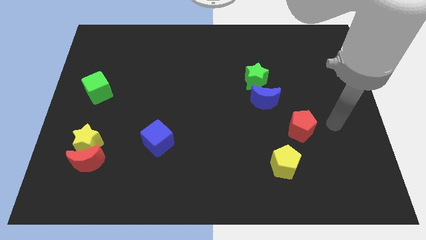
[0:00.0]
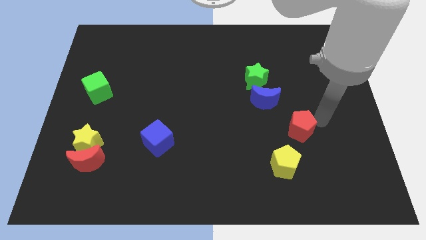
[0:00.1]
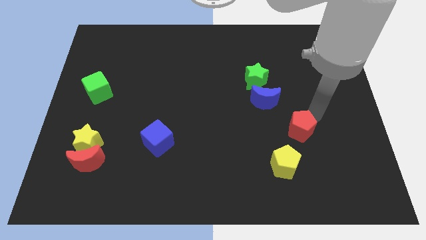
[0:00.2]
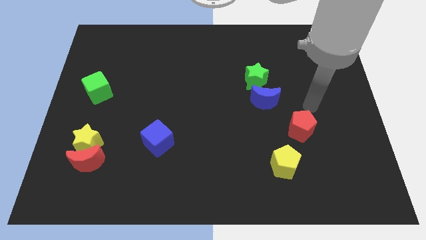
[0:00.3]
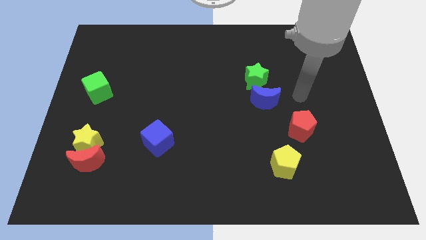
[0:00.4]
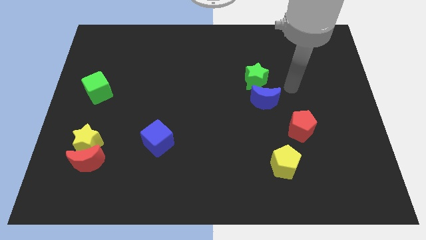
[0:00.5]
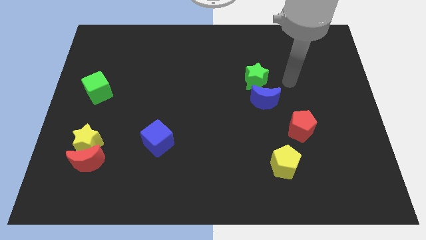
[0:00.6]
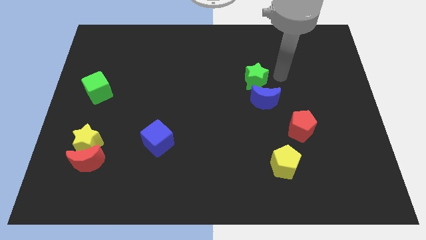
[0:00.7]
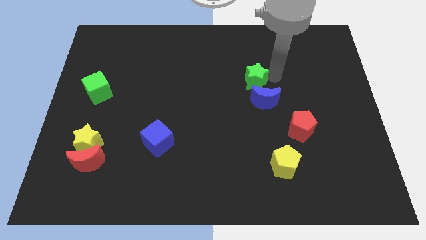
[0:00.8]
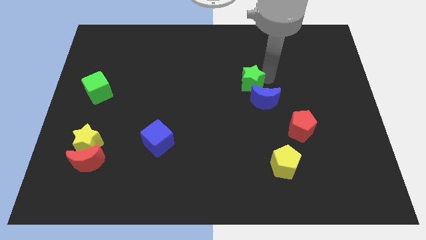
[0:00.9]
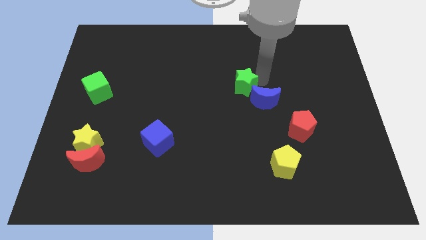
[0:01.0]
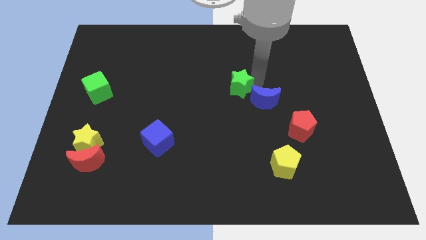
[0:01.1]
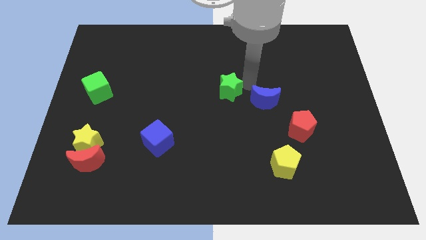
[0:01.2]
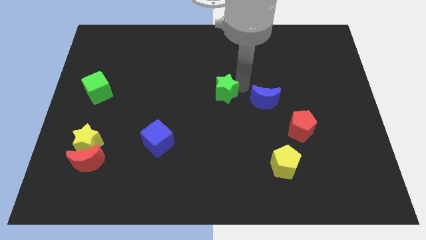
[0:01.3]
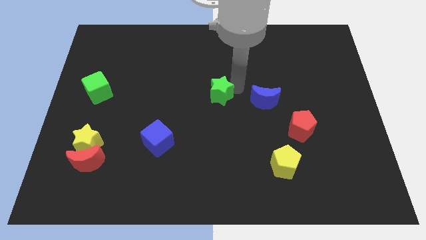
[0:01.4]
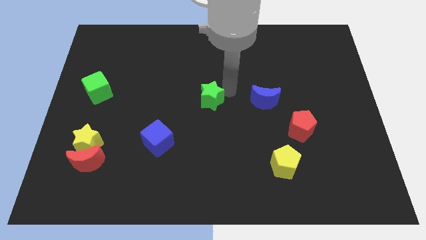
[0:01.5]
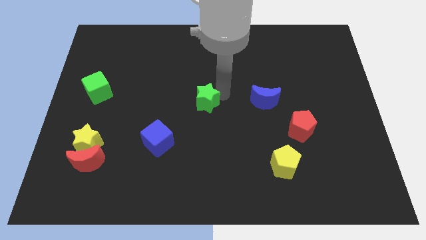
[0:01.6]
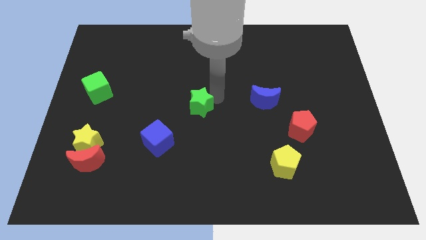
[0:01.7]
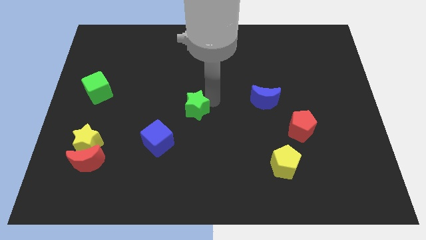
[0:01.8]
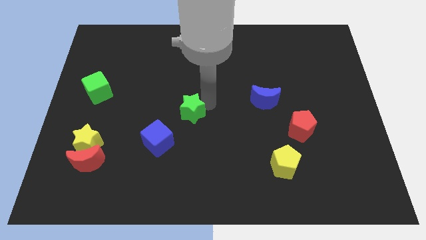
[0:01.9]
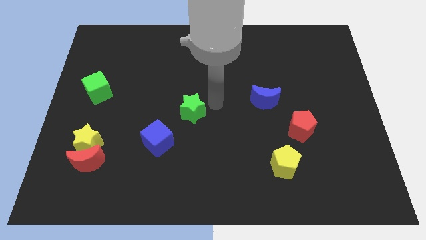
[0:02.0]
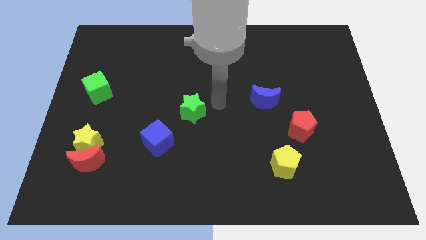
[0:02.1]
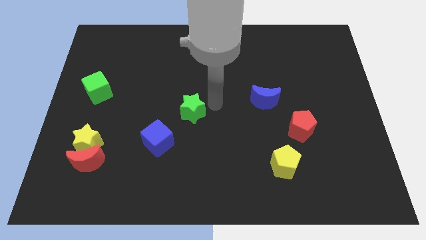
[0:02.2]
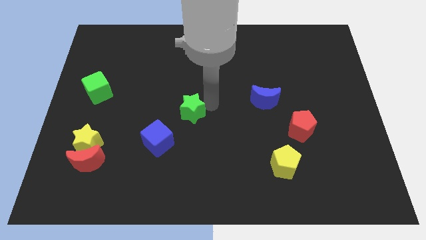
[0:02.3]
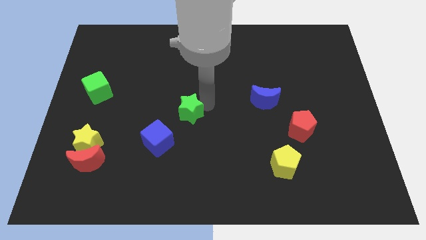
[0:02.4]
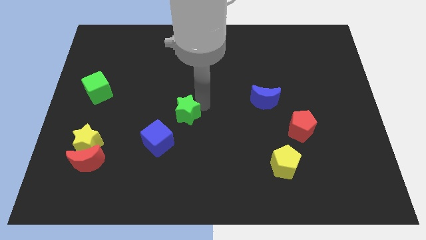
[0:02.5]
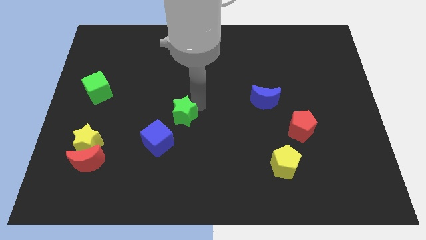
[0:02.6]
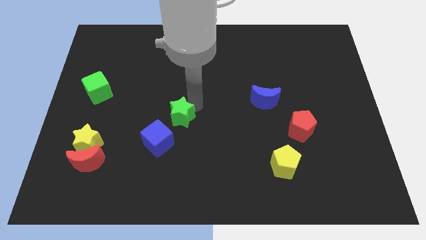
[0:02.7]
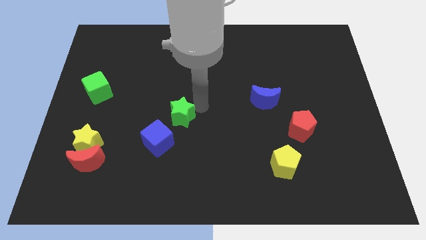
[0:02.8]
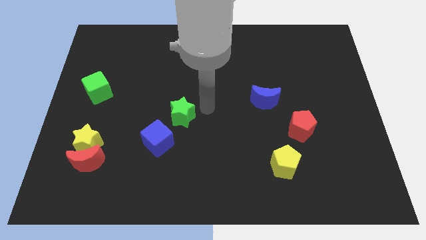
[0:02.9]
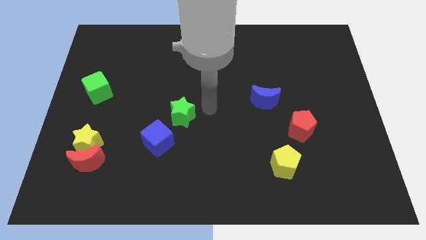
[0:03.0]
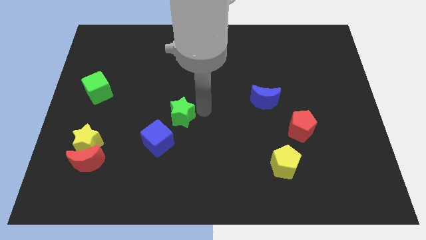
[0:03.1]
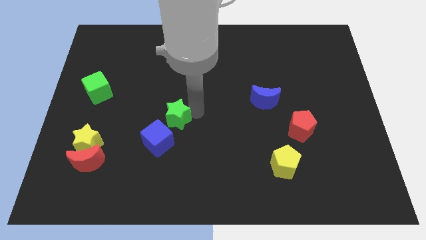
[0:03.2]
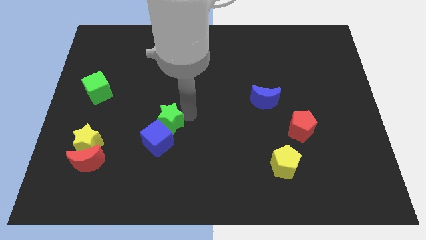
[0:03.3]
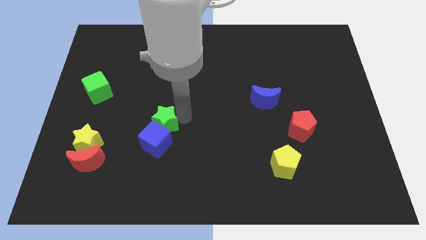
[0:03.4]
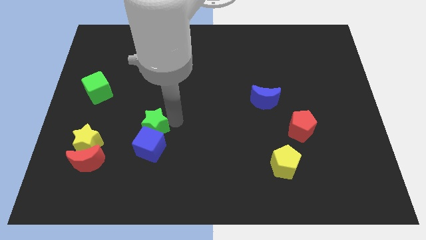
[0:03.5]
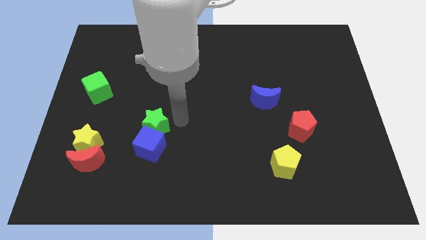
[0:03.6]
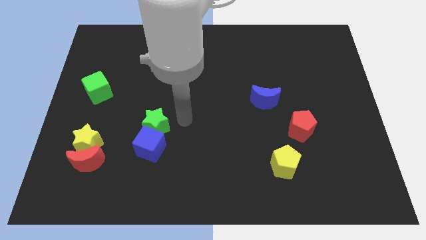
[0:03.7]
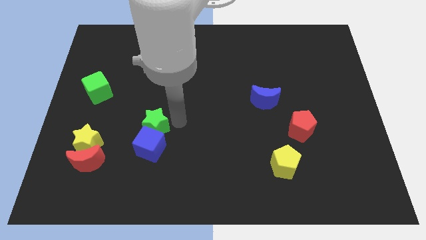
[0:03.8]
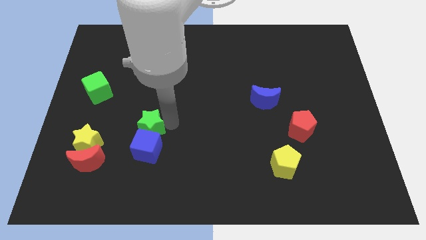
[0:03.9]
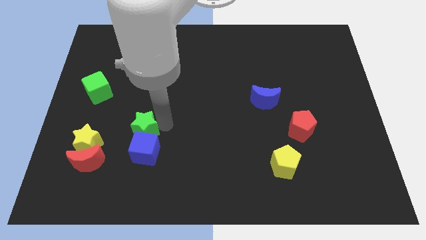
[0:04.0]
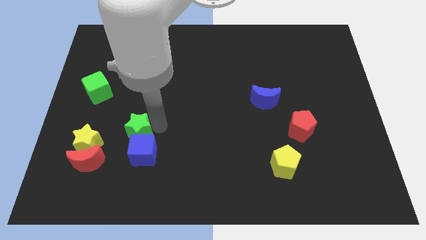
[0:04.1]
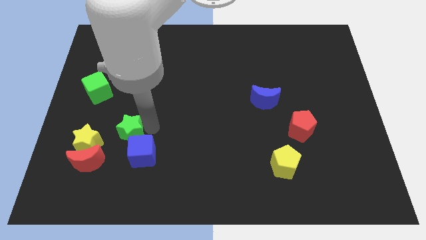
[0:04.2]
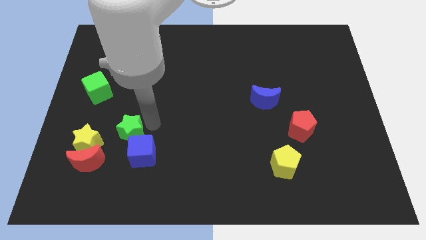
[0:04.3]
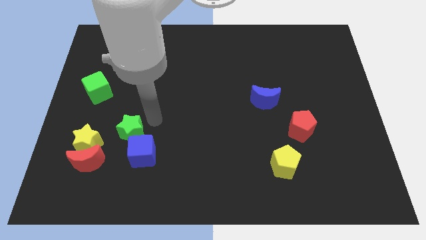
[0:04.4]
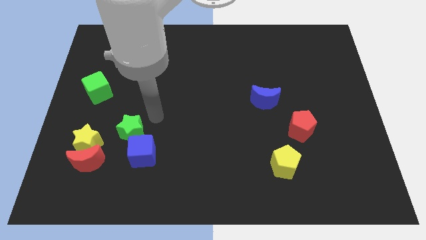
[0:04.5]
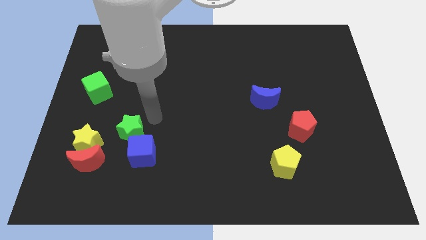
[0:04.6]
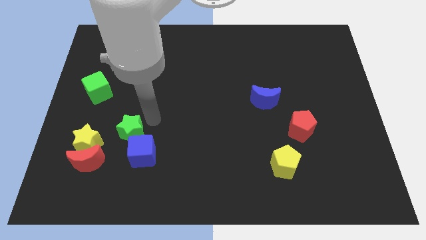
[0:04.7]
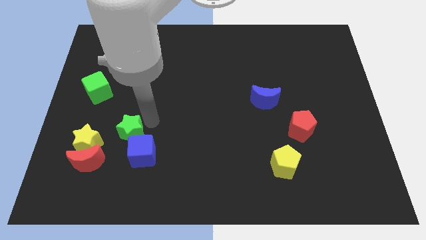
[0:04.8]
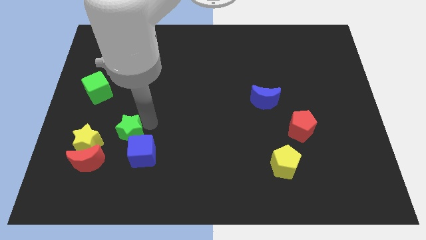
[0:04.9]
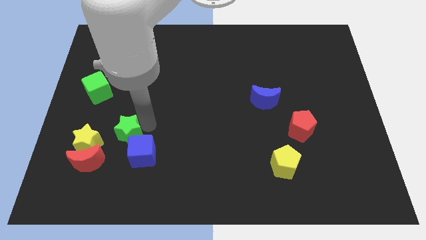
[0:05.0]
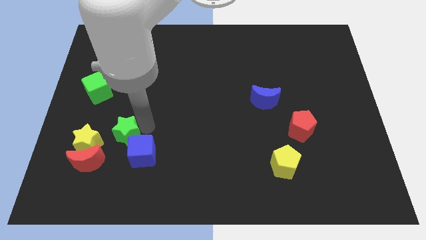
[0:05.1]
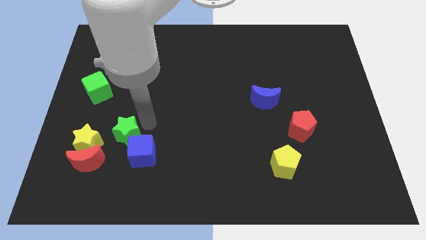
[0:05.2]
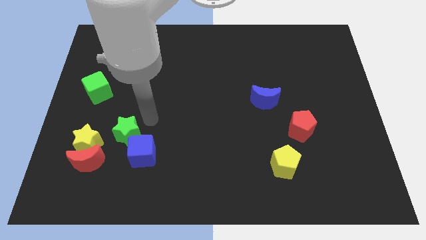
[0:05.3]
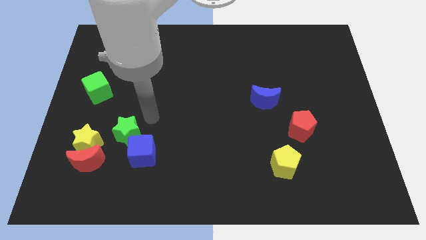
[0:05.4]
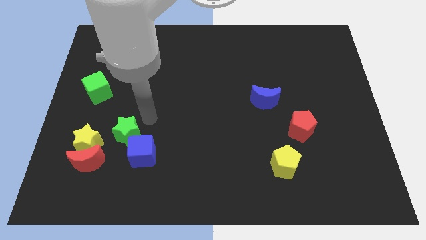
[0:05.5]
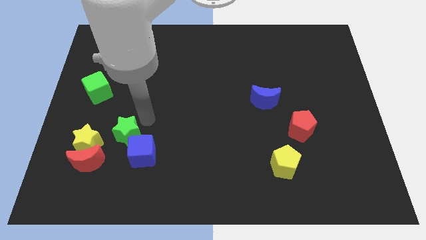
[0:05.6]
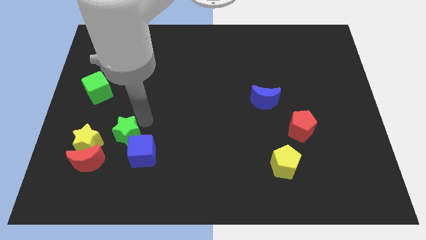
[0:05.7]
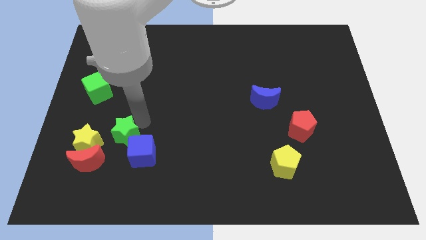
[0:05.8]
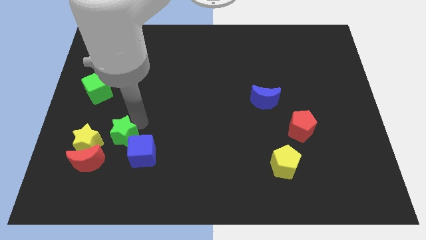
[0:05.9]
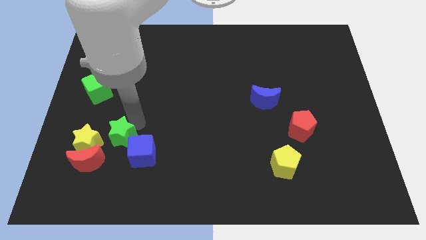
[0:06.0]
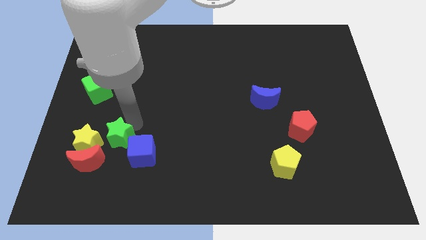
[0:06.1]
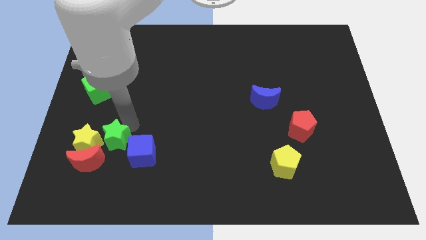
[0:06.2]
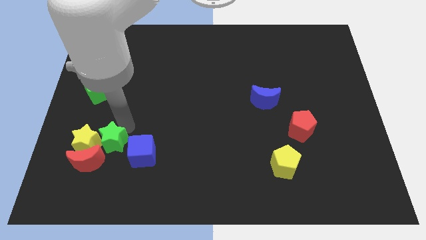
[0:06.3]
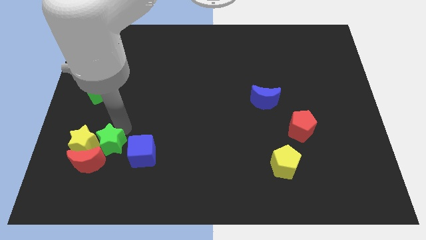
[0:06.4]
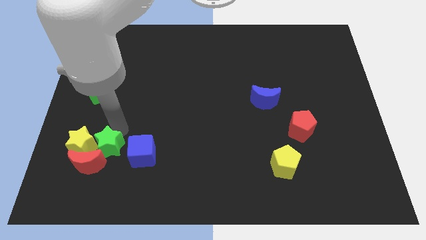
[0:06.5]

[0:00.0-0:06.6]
move the green star next to the red moon

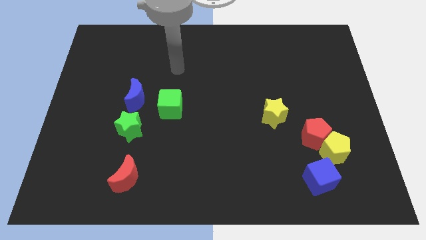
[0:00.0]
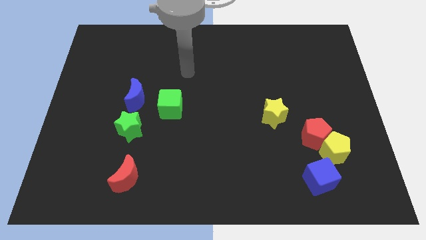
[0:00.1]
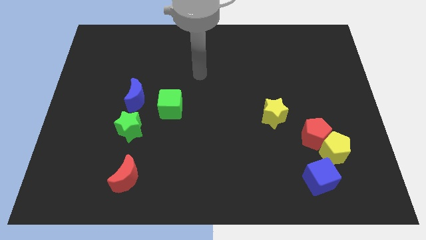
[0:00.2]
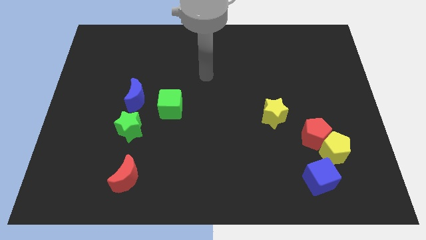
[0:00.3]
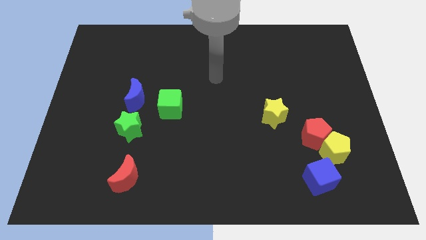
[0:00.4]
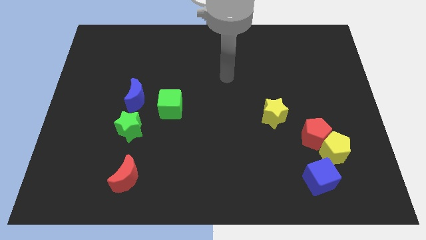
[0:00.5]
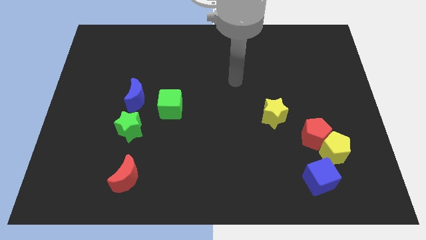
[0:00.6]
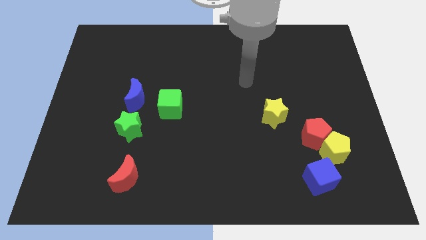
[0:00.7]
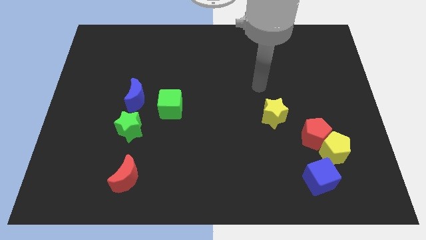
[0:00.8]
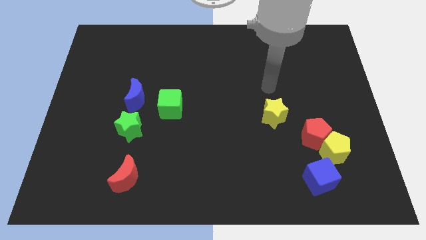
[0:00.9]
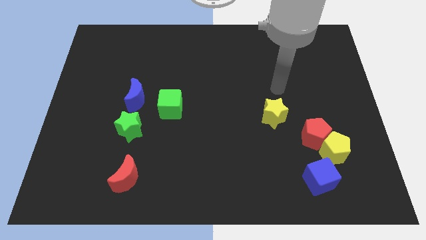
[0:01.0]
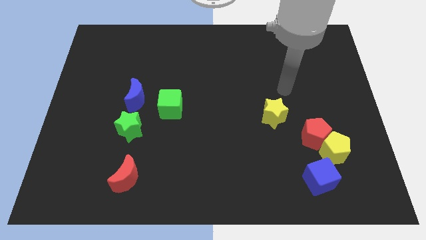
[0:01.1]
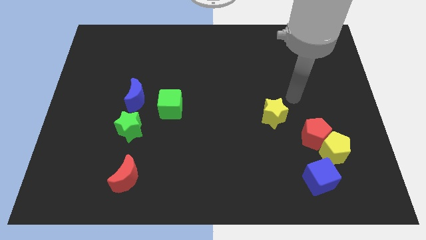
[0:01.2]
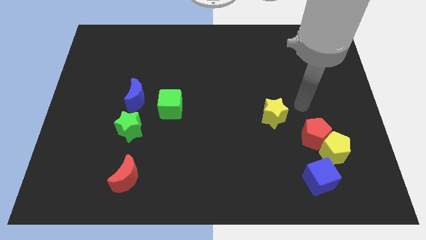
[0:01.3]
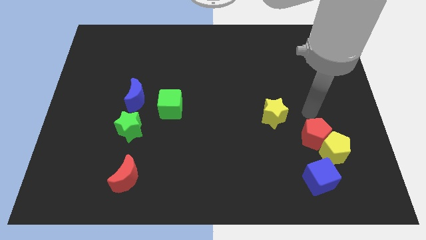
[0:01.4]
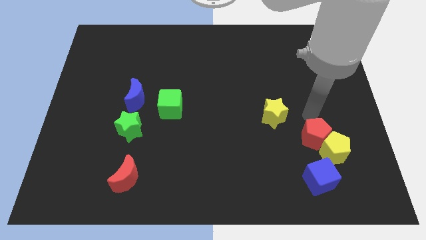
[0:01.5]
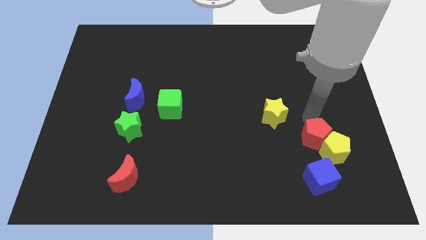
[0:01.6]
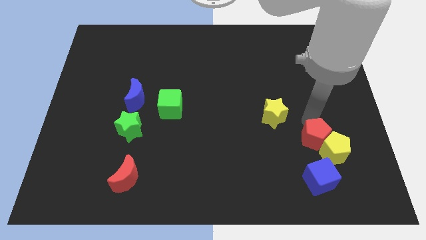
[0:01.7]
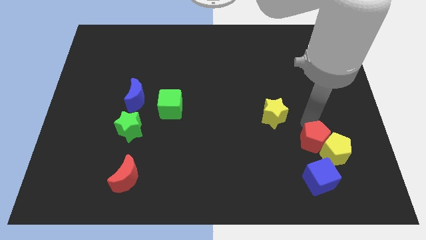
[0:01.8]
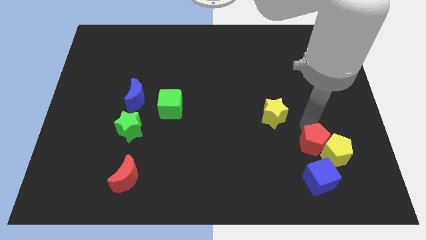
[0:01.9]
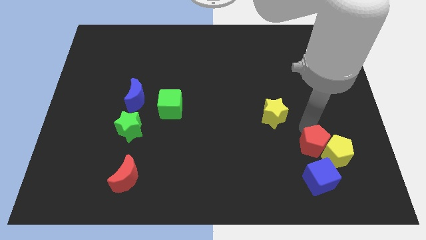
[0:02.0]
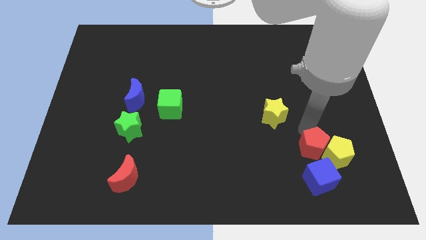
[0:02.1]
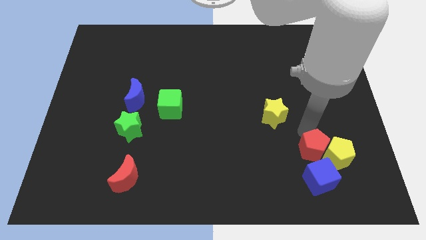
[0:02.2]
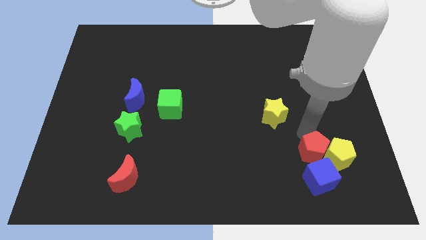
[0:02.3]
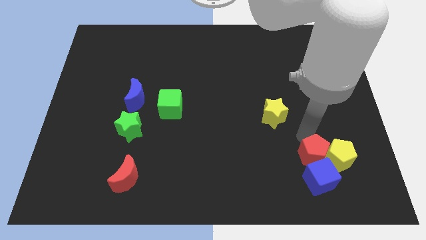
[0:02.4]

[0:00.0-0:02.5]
slide the red pentagon close to the blue cube
